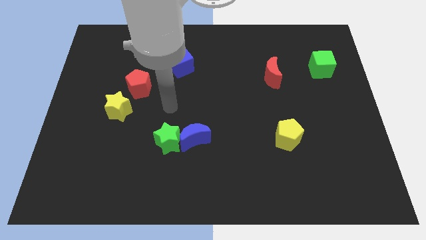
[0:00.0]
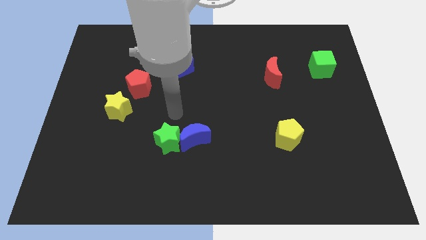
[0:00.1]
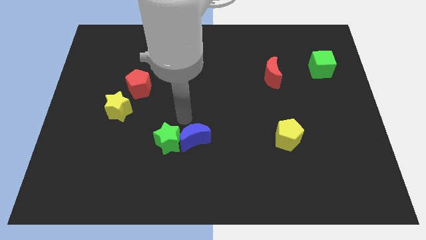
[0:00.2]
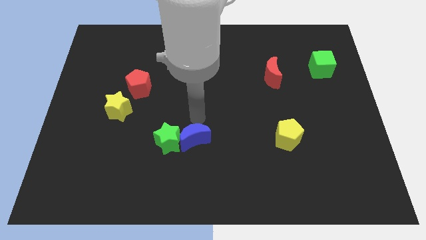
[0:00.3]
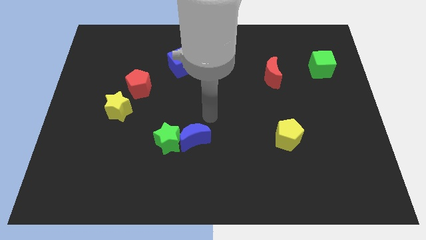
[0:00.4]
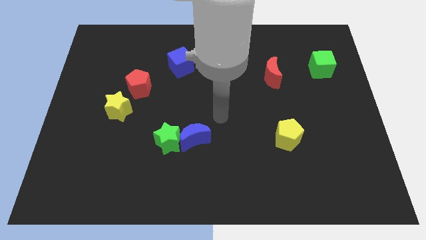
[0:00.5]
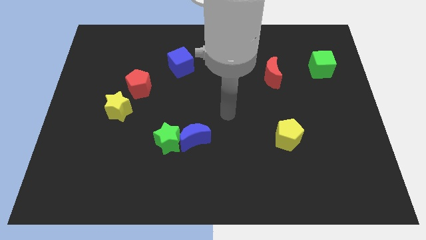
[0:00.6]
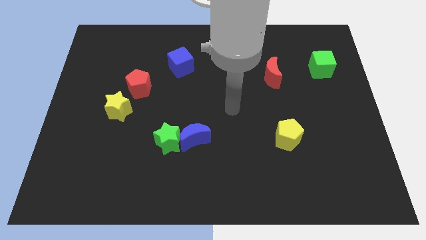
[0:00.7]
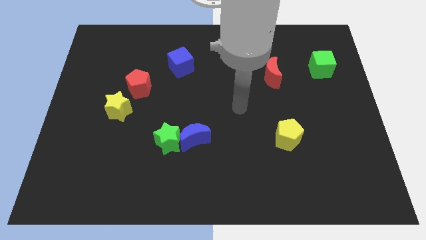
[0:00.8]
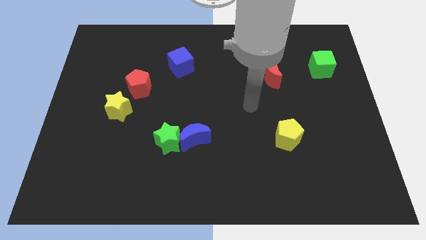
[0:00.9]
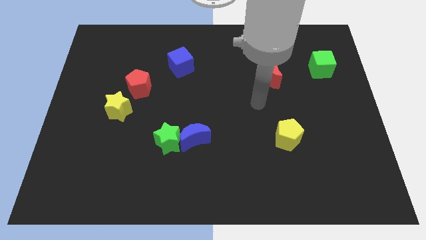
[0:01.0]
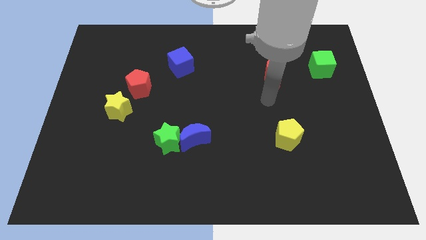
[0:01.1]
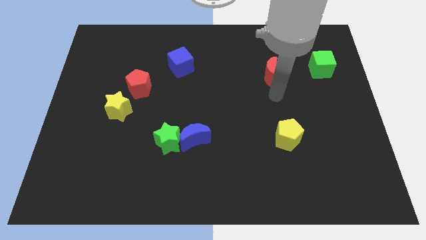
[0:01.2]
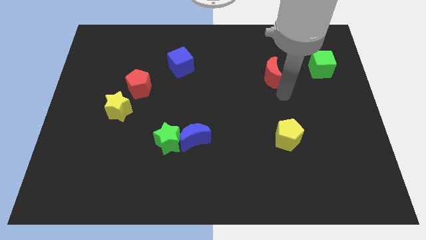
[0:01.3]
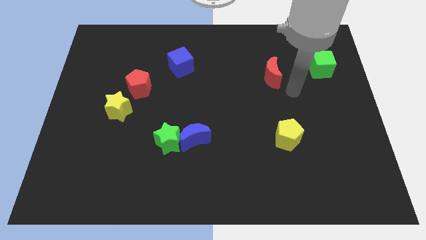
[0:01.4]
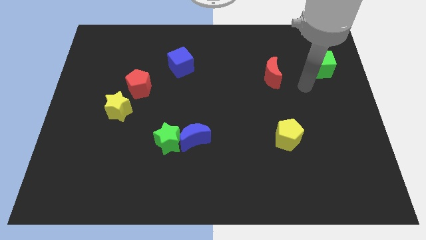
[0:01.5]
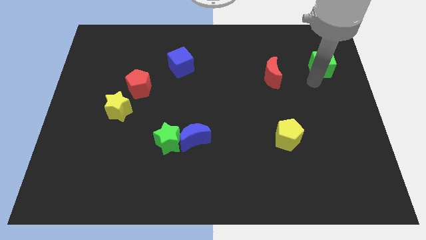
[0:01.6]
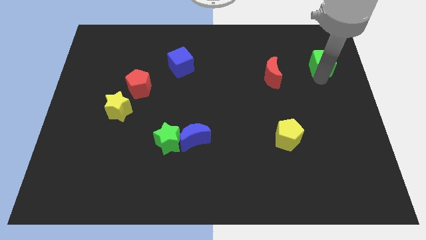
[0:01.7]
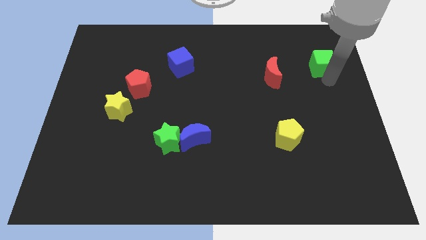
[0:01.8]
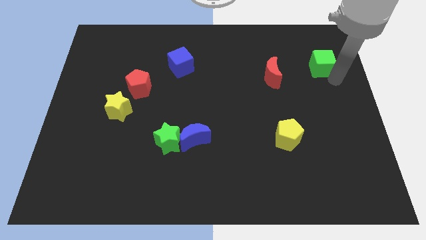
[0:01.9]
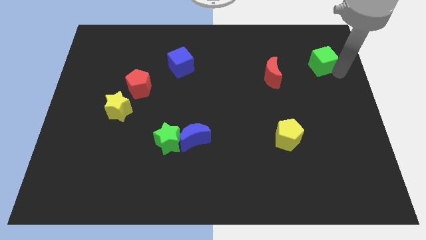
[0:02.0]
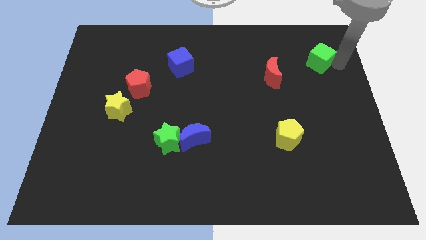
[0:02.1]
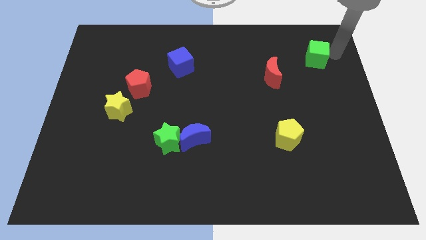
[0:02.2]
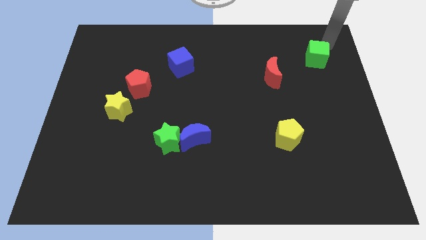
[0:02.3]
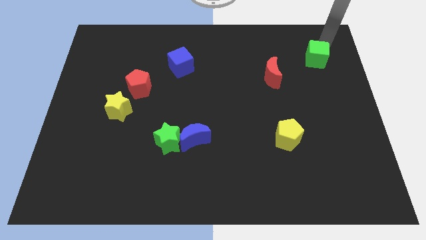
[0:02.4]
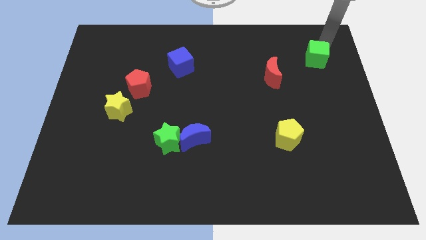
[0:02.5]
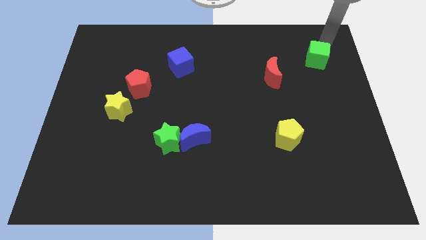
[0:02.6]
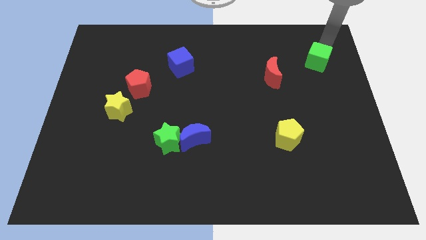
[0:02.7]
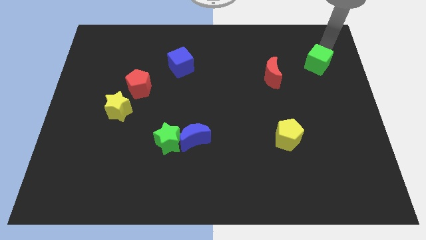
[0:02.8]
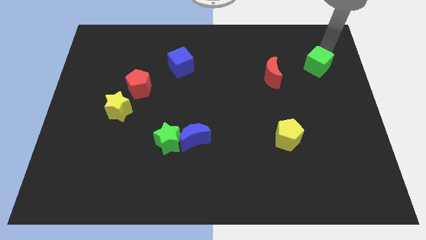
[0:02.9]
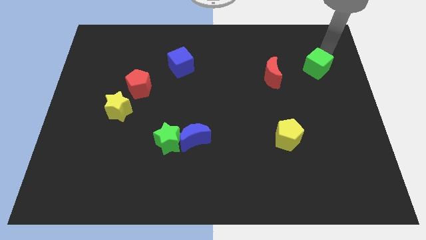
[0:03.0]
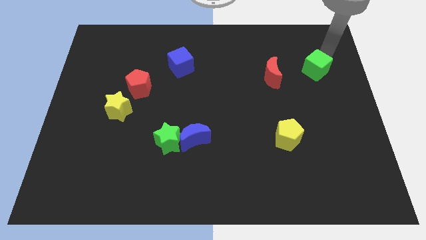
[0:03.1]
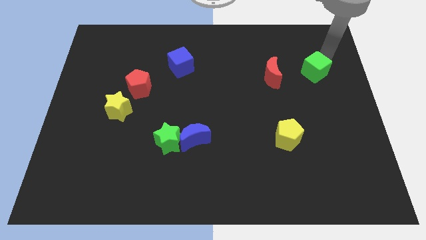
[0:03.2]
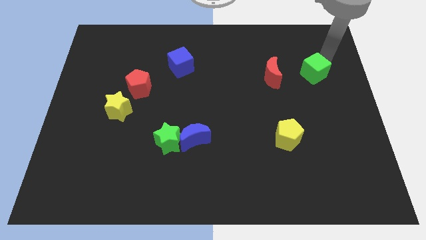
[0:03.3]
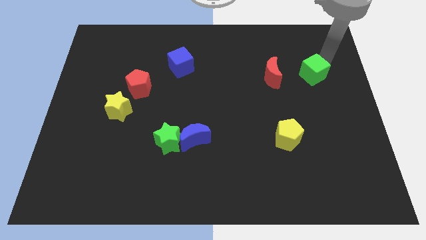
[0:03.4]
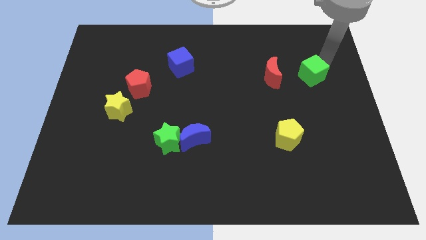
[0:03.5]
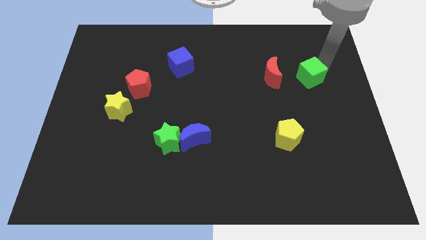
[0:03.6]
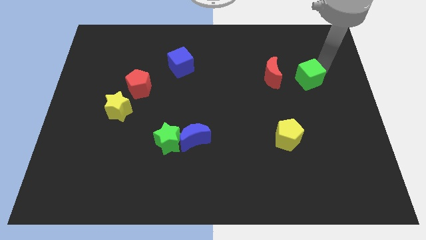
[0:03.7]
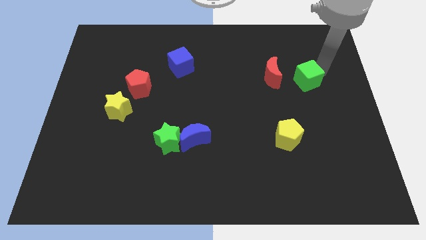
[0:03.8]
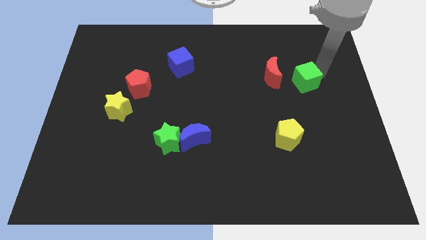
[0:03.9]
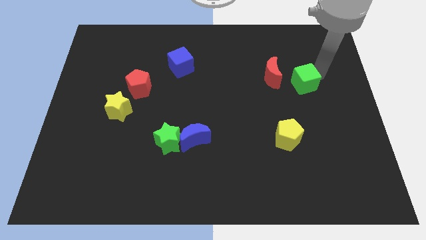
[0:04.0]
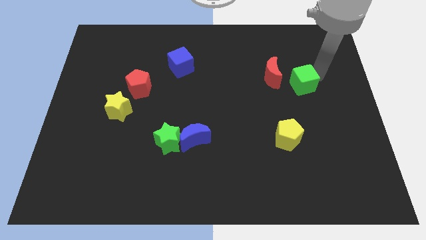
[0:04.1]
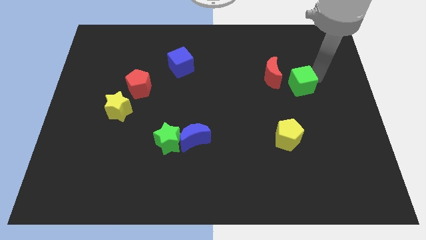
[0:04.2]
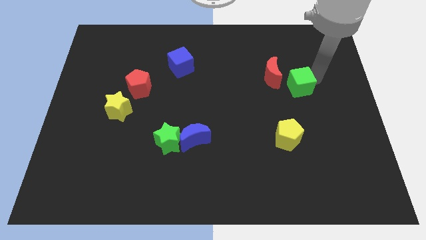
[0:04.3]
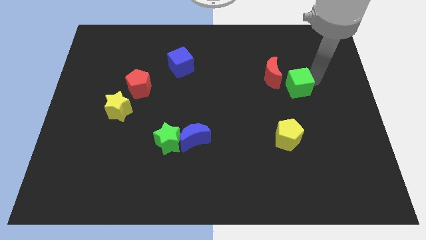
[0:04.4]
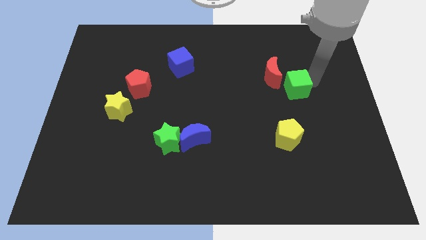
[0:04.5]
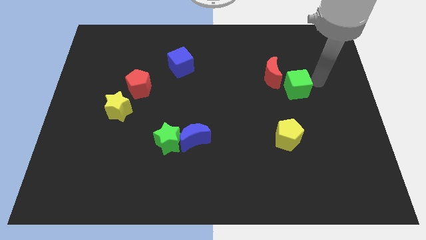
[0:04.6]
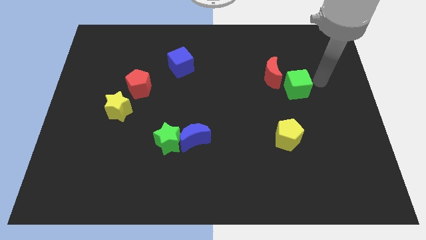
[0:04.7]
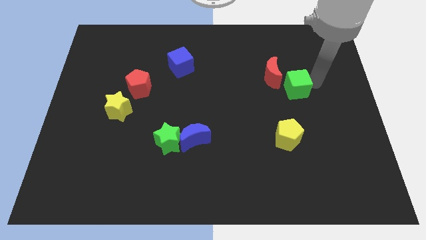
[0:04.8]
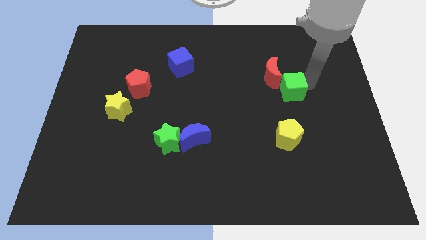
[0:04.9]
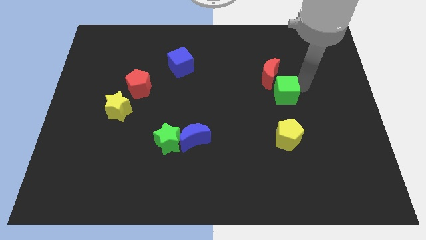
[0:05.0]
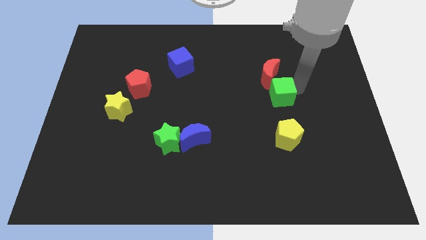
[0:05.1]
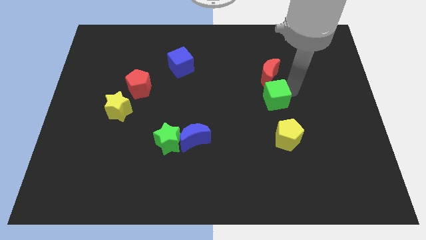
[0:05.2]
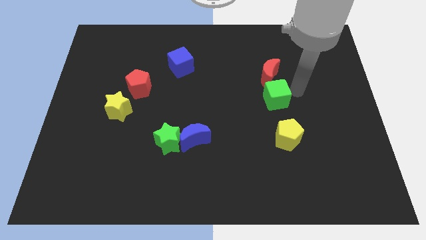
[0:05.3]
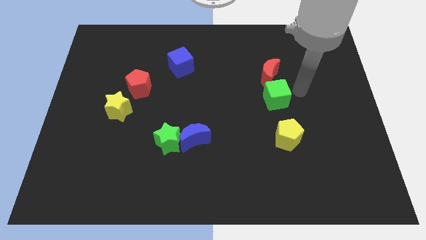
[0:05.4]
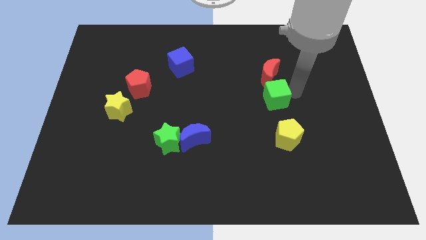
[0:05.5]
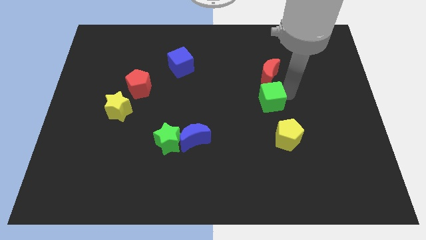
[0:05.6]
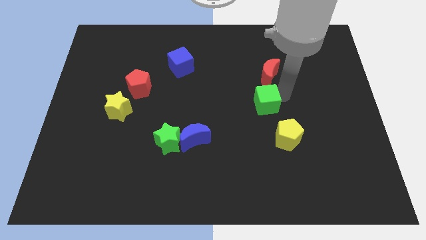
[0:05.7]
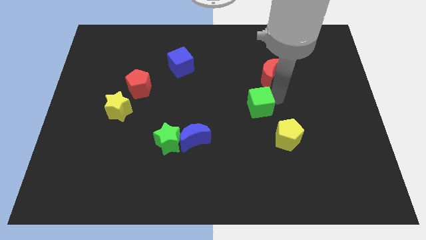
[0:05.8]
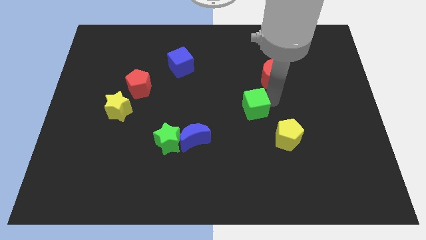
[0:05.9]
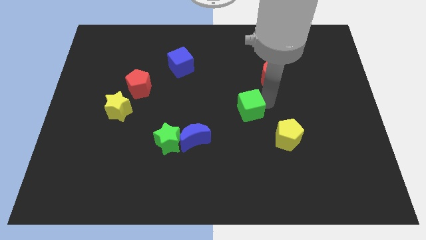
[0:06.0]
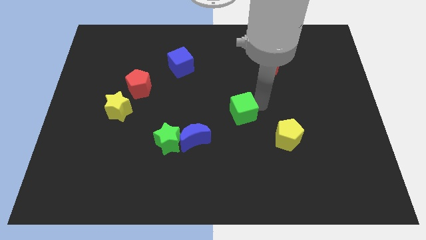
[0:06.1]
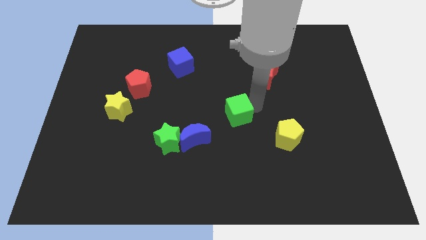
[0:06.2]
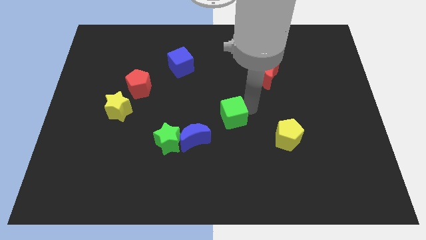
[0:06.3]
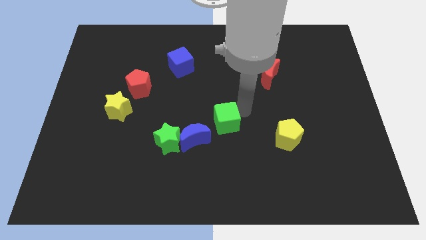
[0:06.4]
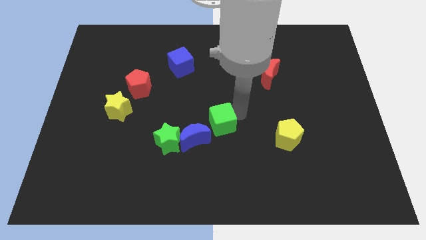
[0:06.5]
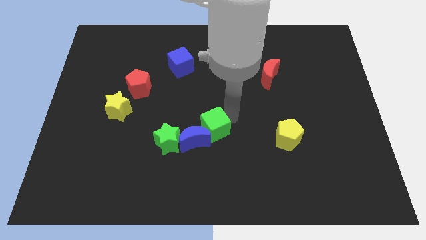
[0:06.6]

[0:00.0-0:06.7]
push the green cube close to the blue moon
